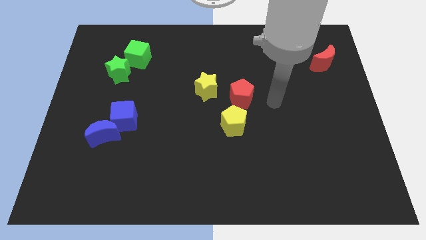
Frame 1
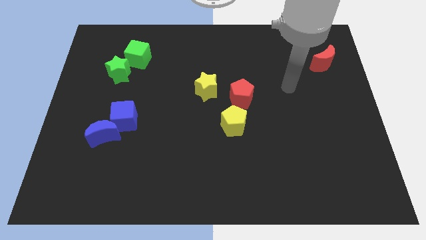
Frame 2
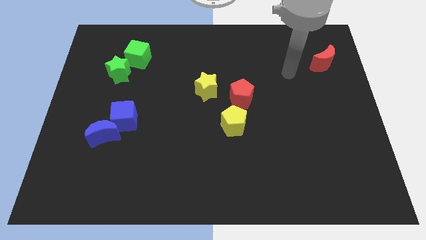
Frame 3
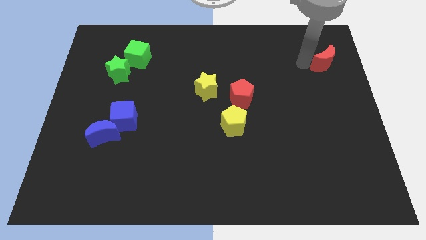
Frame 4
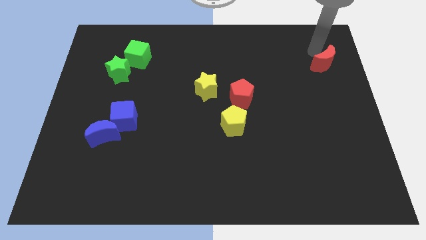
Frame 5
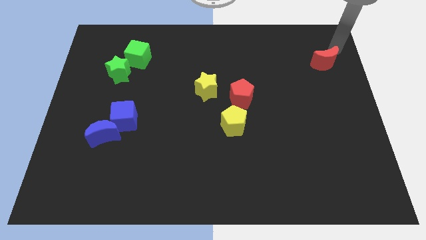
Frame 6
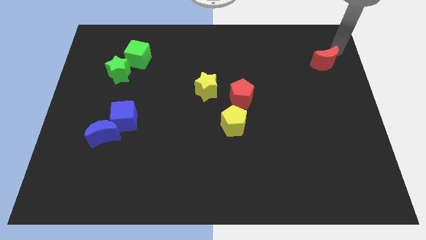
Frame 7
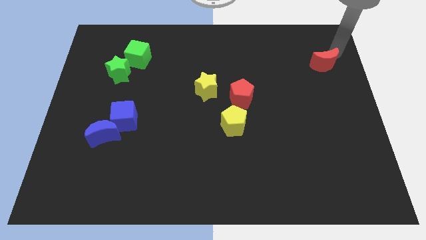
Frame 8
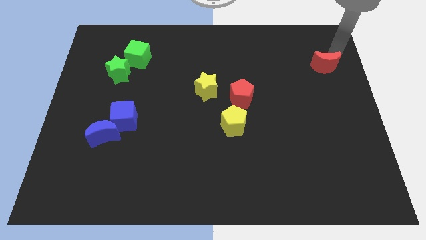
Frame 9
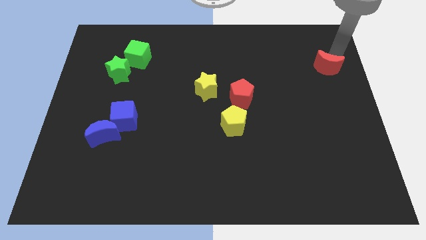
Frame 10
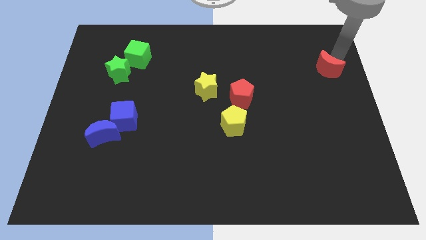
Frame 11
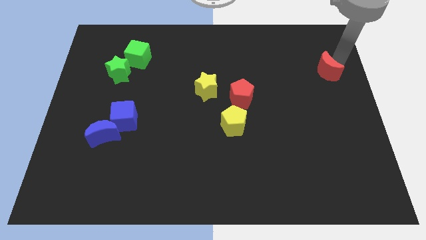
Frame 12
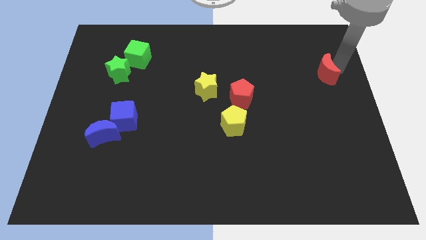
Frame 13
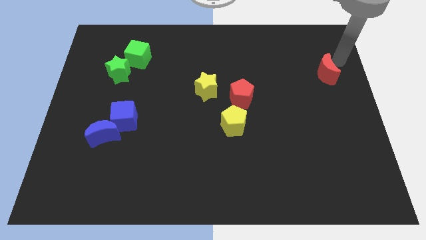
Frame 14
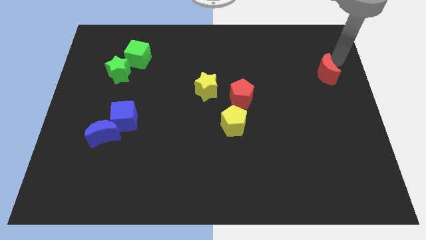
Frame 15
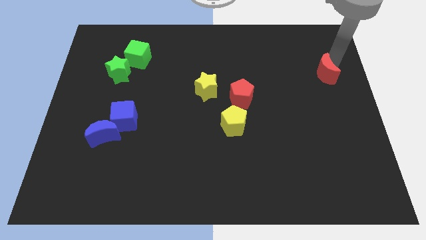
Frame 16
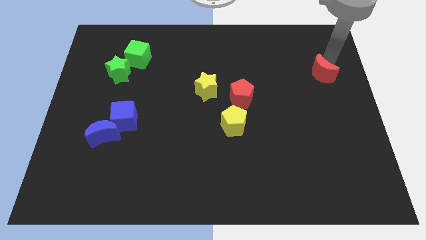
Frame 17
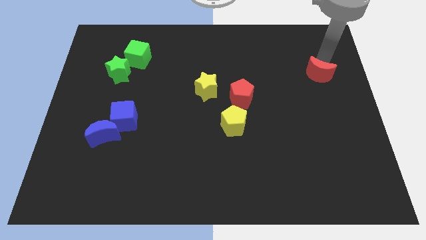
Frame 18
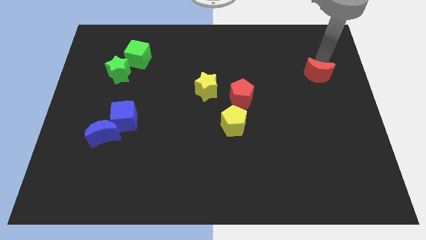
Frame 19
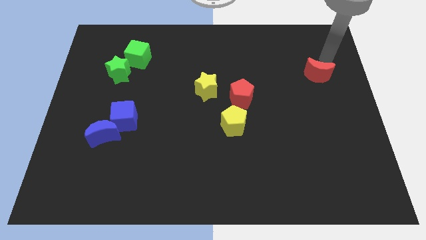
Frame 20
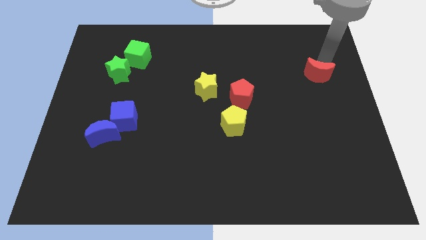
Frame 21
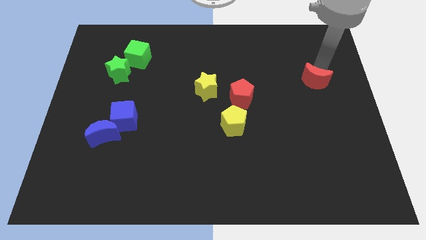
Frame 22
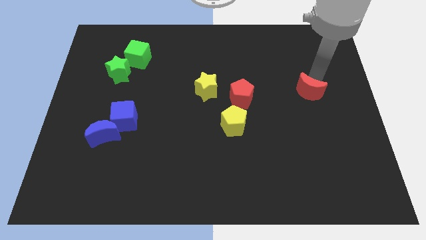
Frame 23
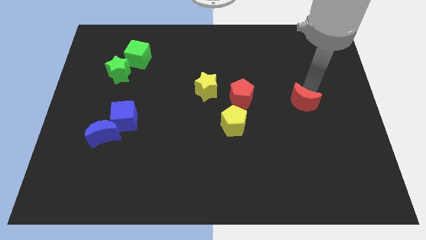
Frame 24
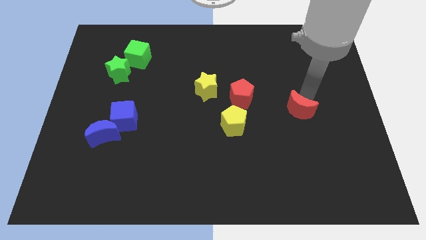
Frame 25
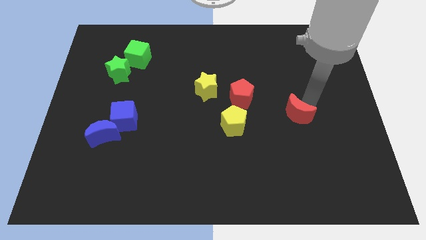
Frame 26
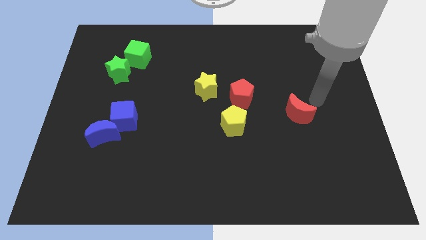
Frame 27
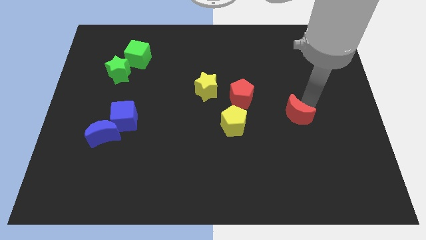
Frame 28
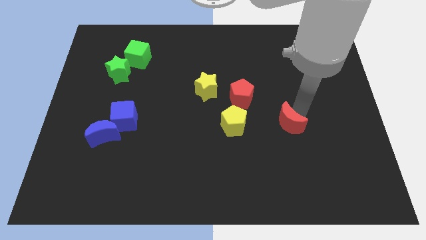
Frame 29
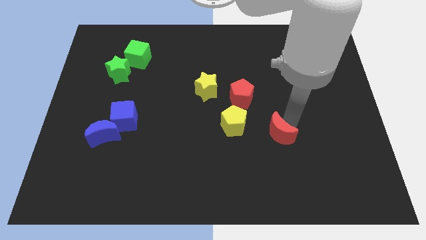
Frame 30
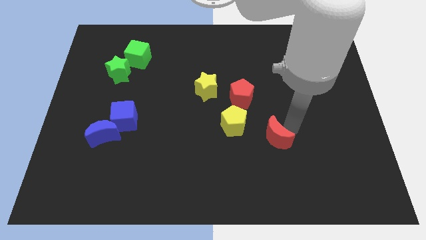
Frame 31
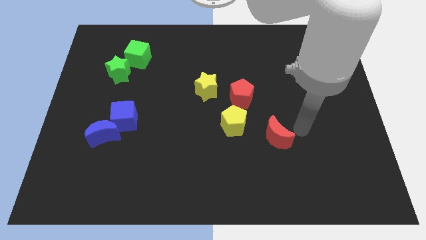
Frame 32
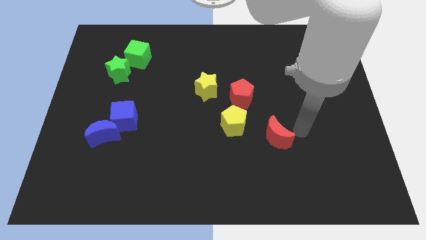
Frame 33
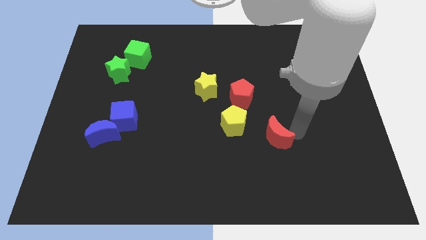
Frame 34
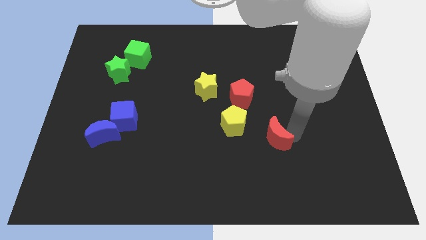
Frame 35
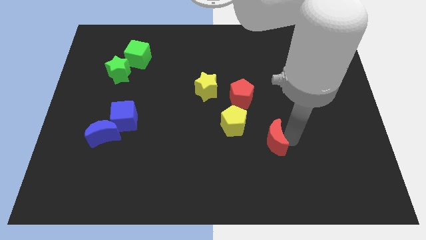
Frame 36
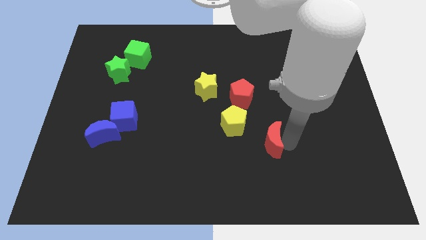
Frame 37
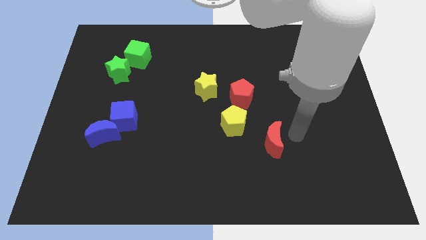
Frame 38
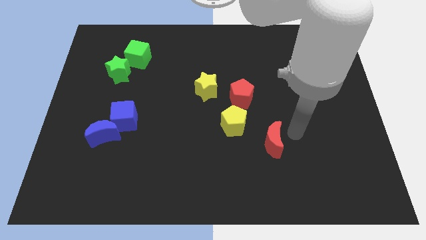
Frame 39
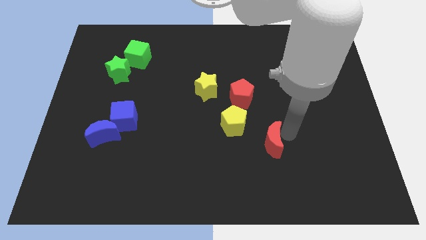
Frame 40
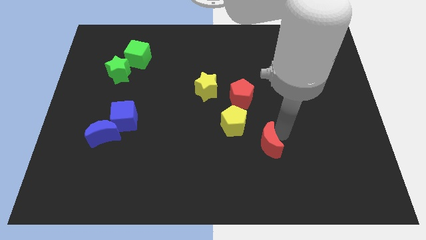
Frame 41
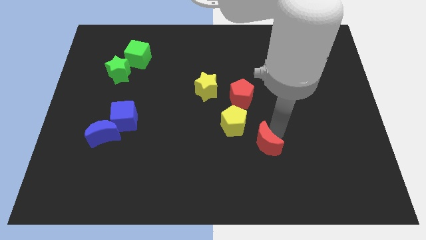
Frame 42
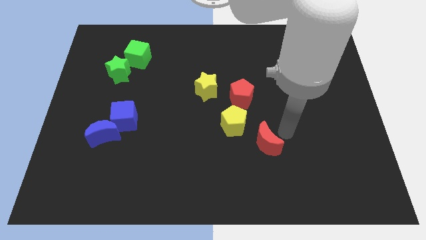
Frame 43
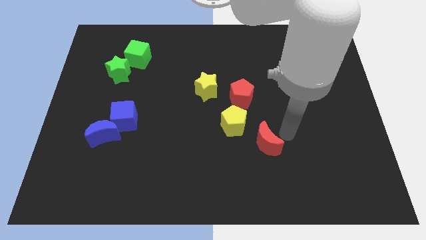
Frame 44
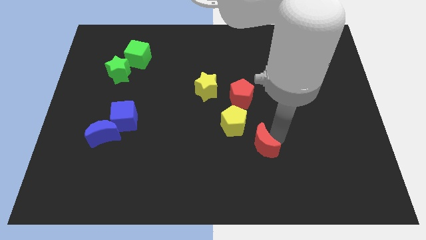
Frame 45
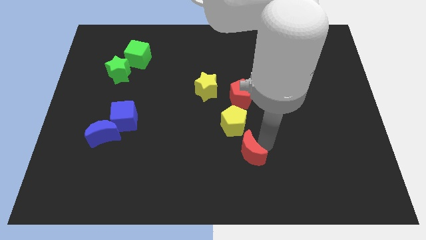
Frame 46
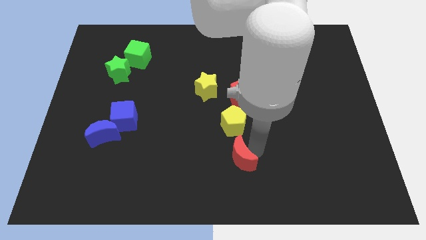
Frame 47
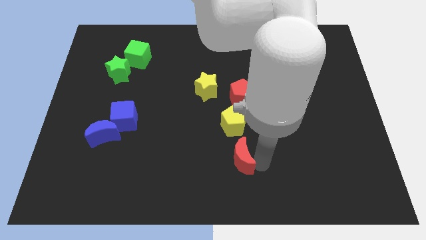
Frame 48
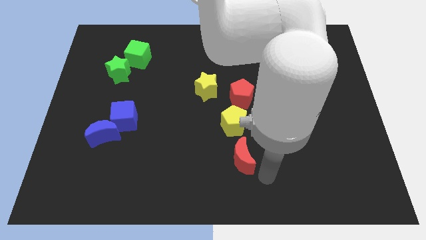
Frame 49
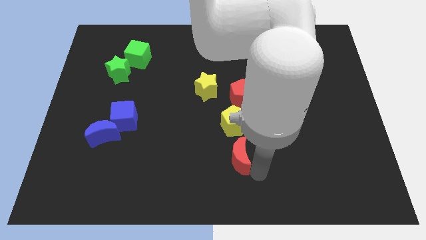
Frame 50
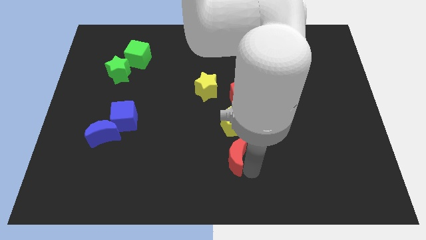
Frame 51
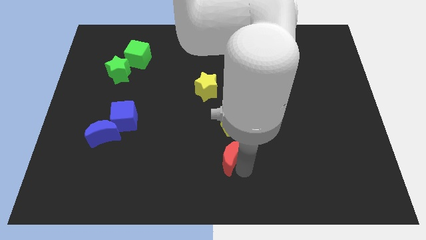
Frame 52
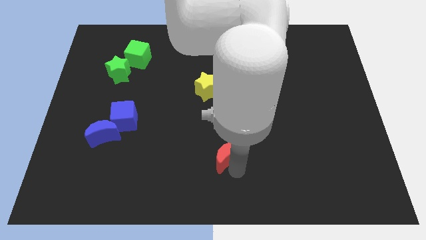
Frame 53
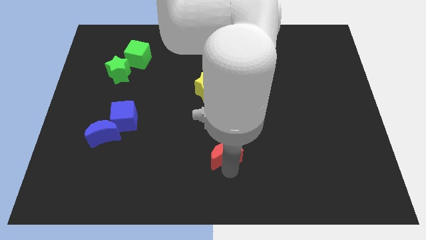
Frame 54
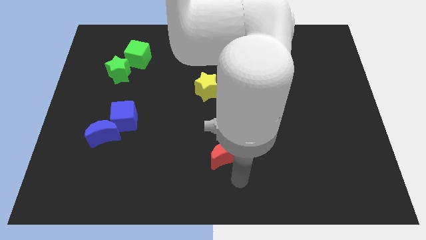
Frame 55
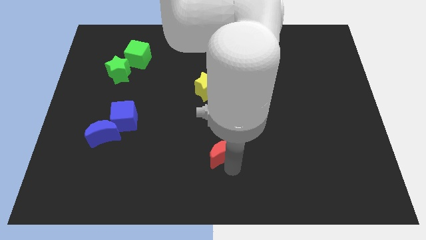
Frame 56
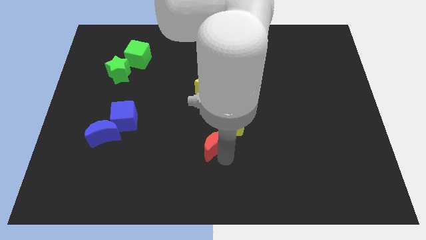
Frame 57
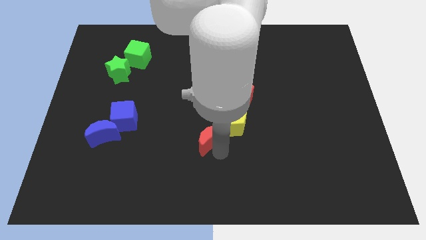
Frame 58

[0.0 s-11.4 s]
push the red moon to the bottom of the yellow star

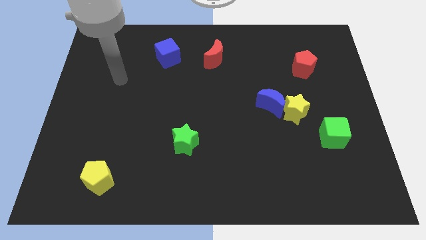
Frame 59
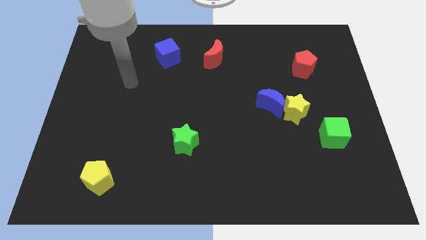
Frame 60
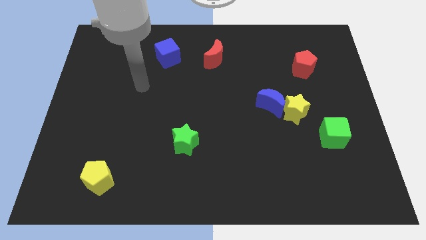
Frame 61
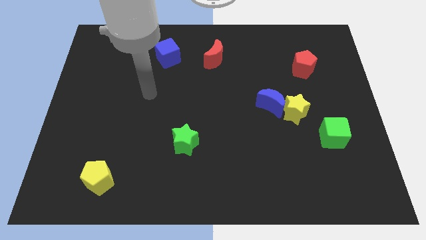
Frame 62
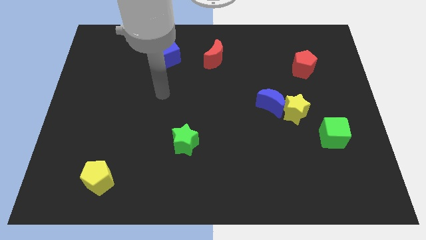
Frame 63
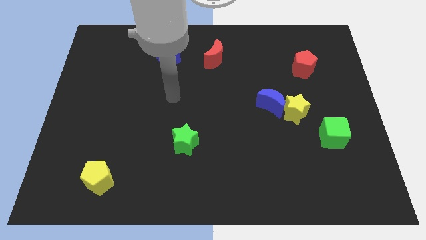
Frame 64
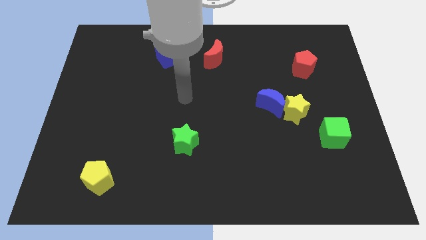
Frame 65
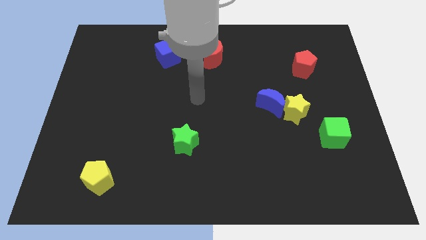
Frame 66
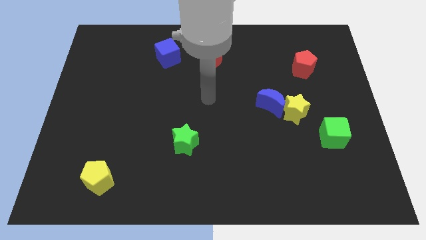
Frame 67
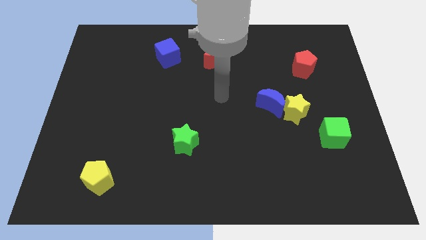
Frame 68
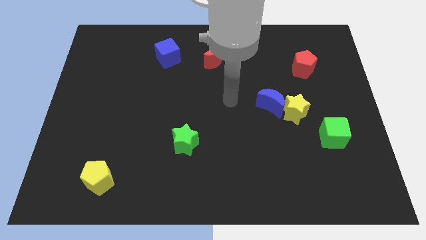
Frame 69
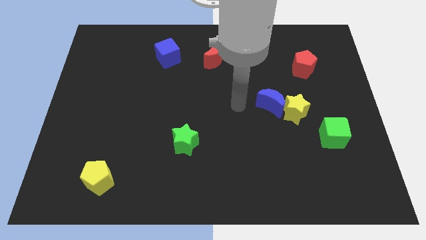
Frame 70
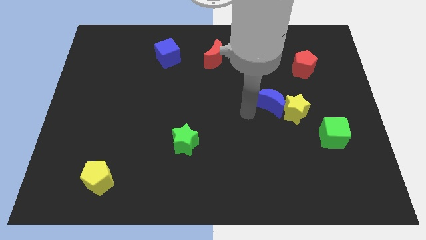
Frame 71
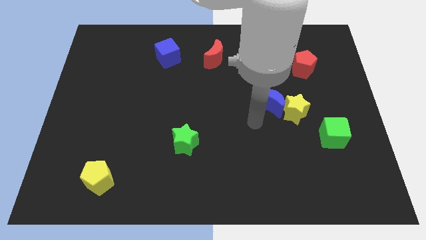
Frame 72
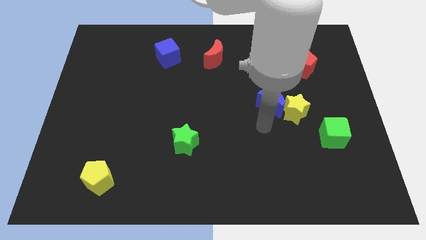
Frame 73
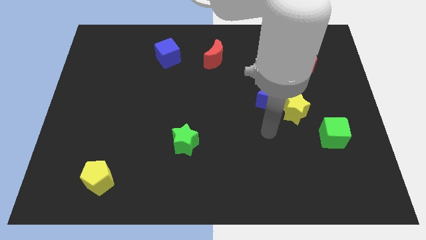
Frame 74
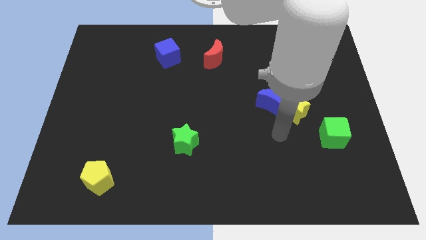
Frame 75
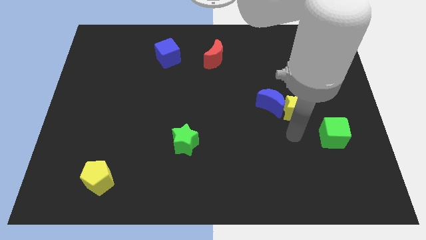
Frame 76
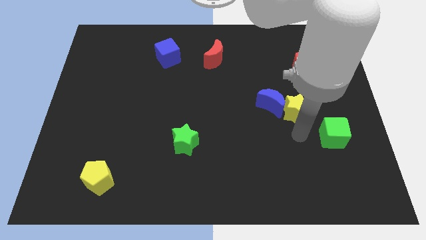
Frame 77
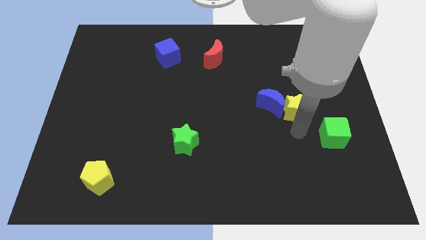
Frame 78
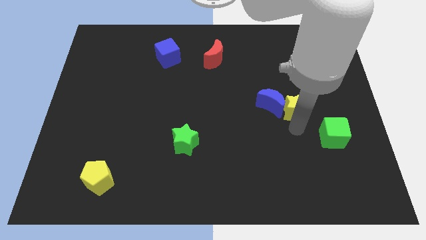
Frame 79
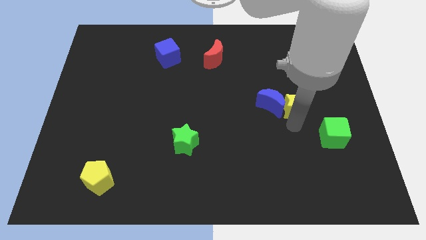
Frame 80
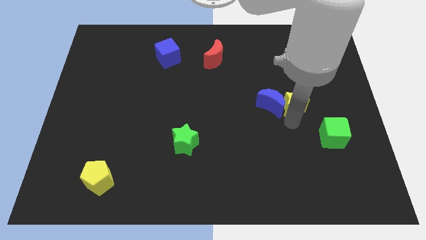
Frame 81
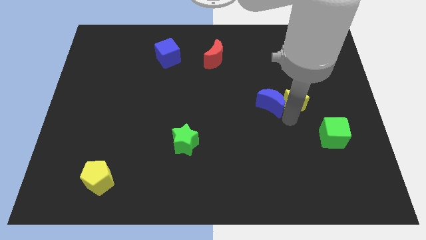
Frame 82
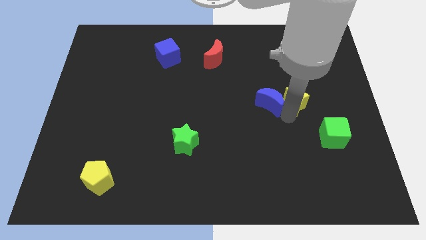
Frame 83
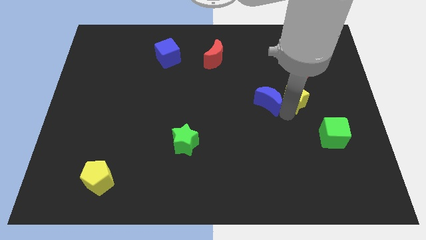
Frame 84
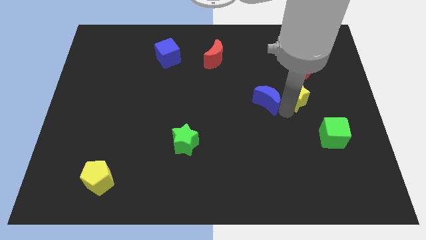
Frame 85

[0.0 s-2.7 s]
put the yellow star to the bottom left of the red pentagon
